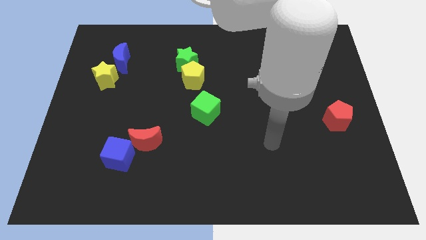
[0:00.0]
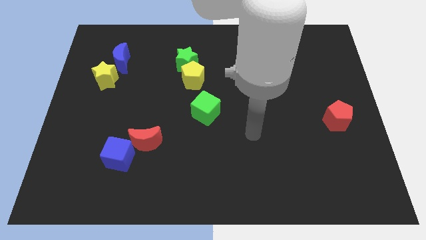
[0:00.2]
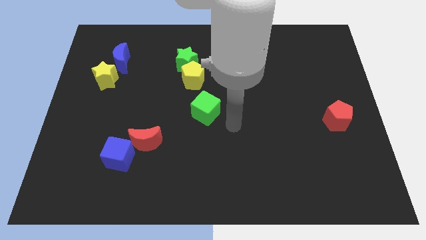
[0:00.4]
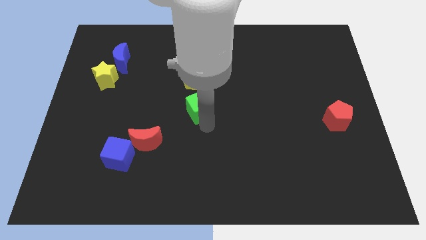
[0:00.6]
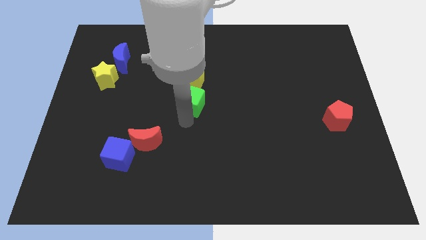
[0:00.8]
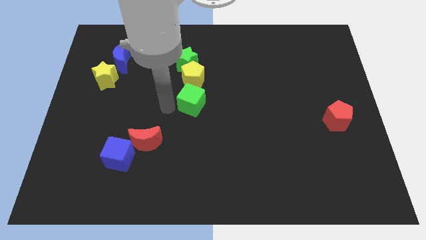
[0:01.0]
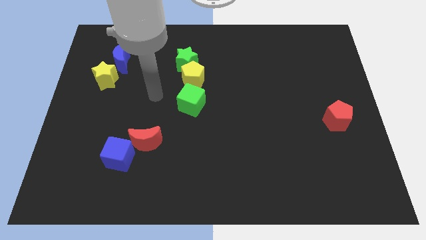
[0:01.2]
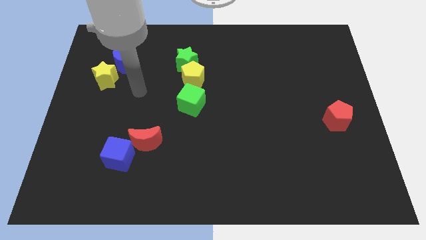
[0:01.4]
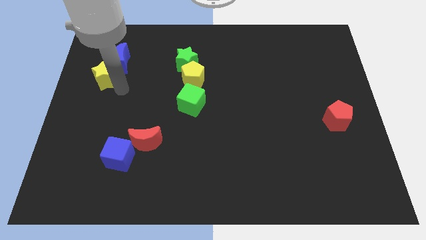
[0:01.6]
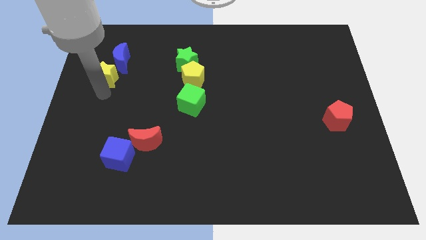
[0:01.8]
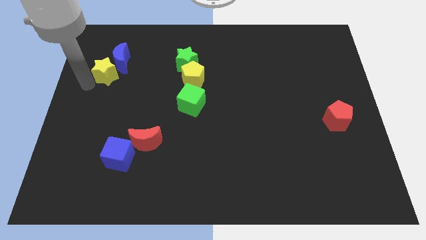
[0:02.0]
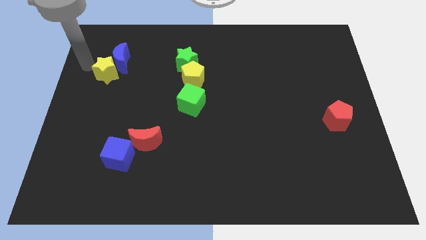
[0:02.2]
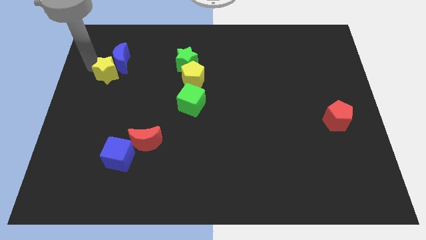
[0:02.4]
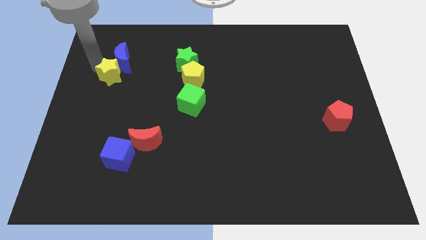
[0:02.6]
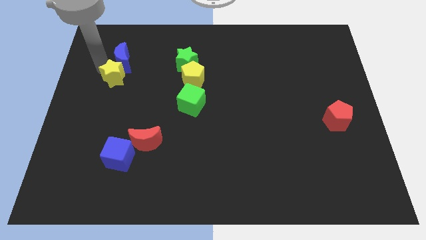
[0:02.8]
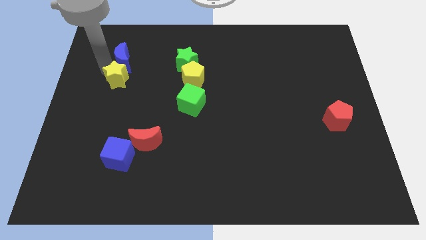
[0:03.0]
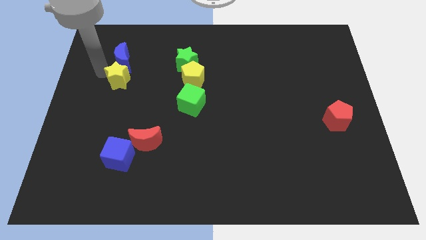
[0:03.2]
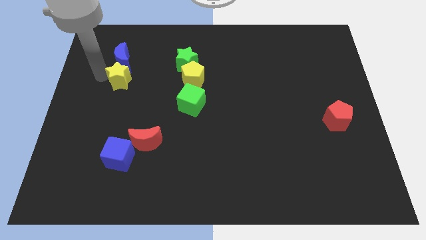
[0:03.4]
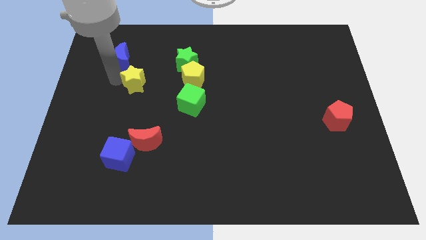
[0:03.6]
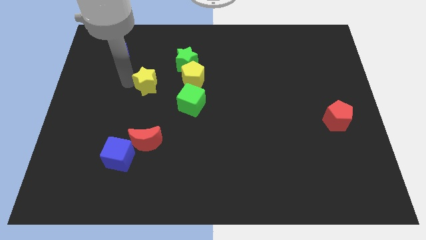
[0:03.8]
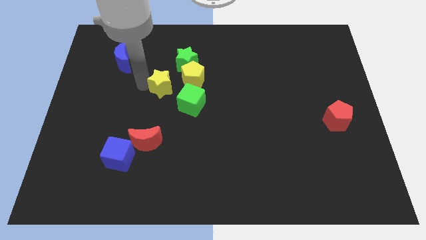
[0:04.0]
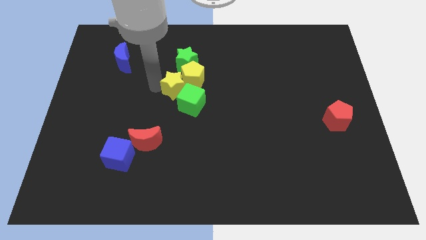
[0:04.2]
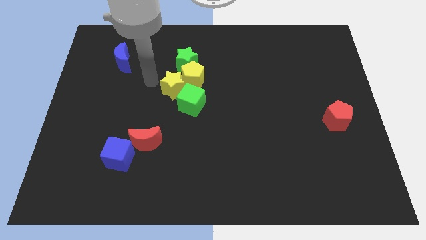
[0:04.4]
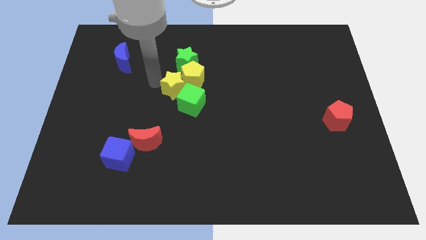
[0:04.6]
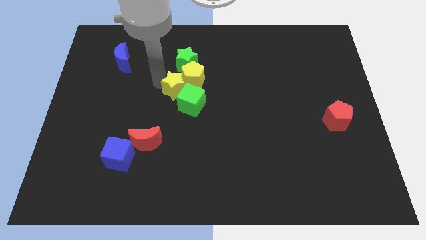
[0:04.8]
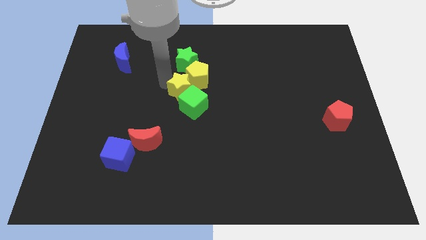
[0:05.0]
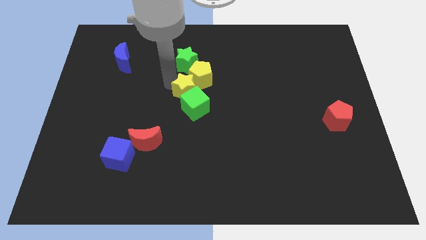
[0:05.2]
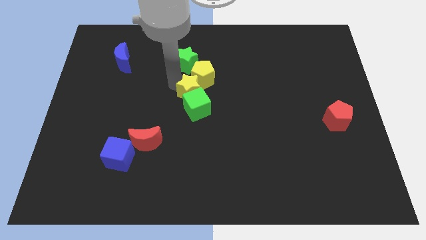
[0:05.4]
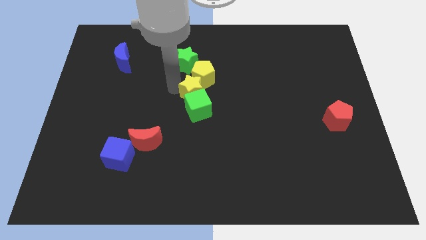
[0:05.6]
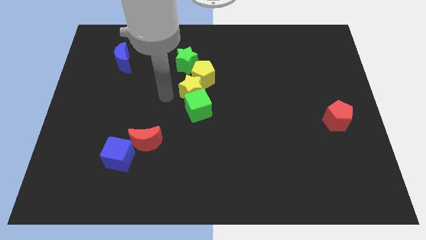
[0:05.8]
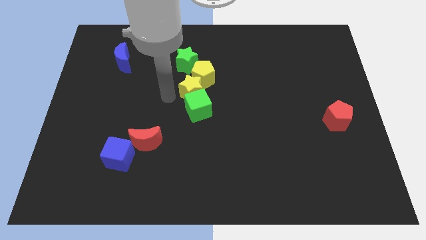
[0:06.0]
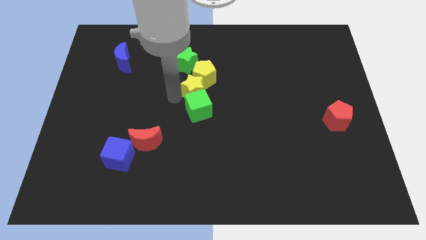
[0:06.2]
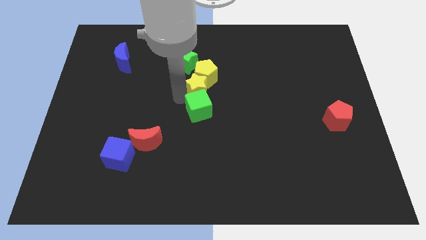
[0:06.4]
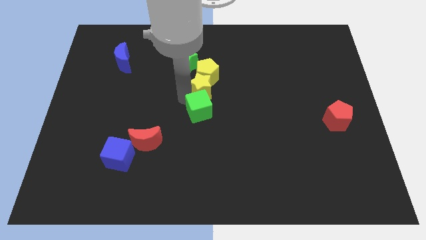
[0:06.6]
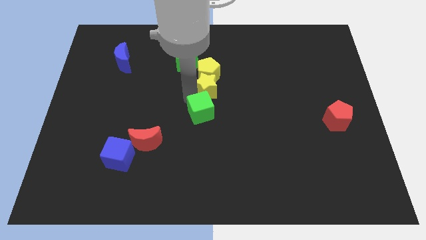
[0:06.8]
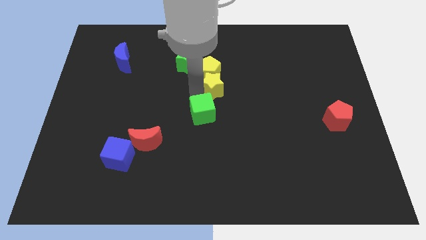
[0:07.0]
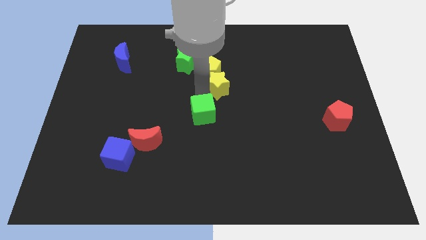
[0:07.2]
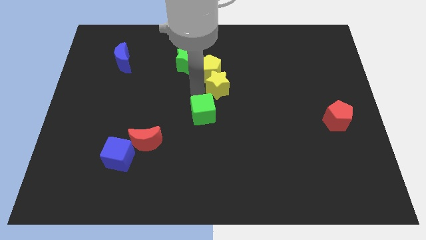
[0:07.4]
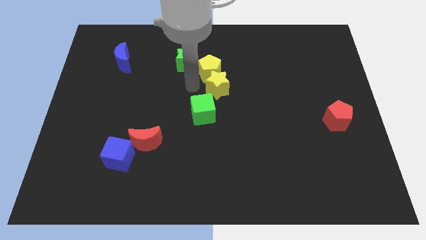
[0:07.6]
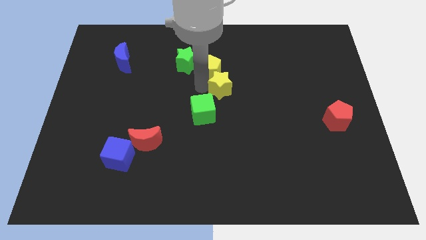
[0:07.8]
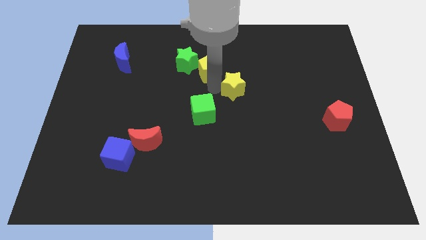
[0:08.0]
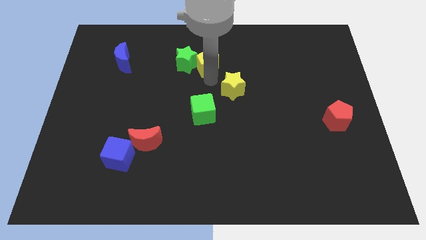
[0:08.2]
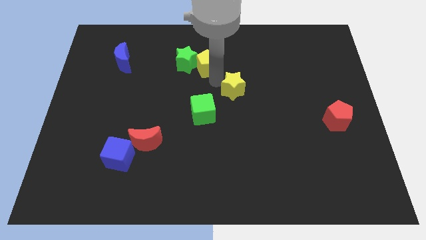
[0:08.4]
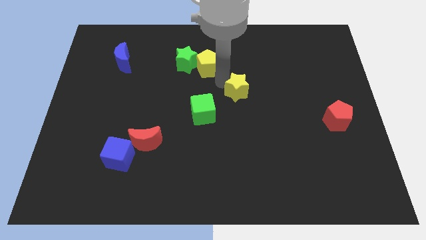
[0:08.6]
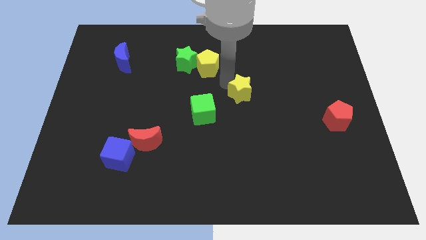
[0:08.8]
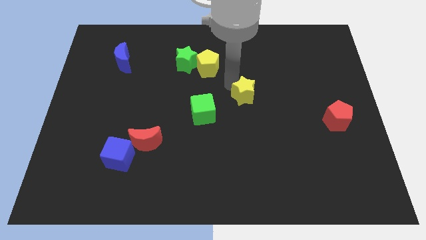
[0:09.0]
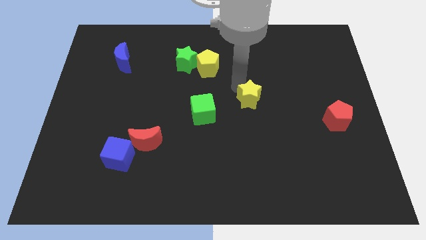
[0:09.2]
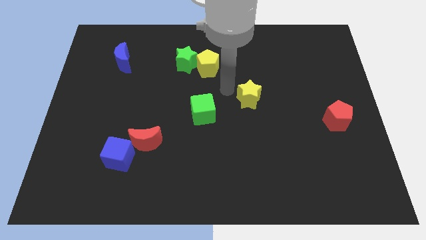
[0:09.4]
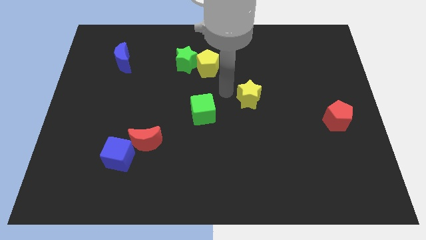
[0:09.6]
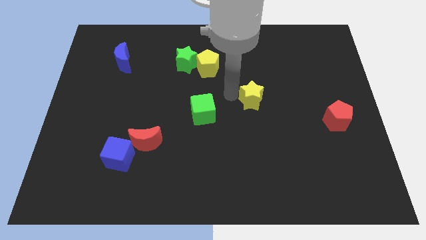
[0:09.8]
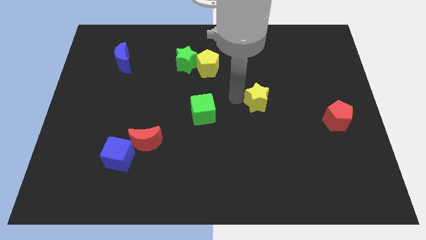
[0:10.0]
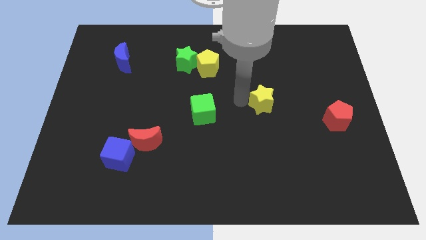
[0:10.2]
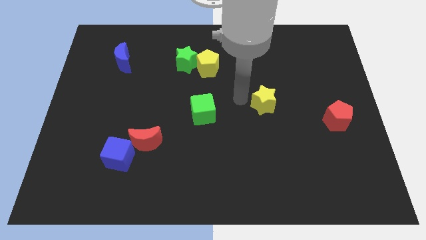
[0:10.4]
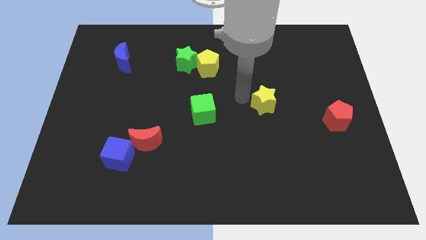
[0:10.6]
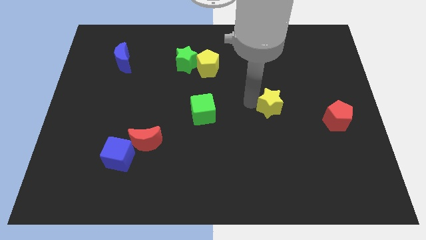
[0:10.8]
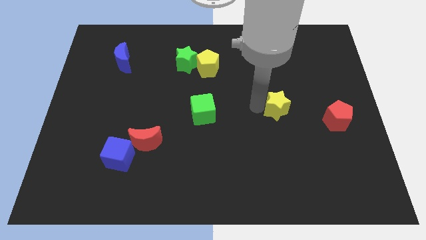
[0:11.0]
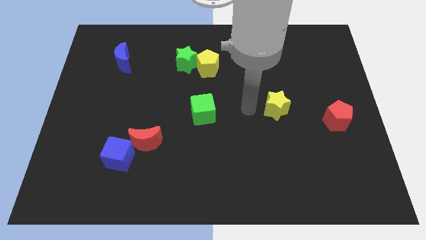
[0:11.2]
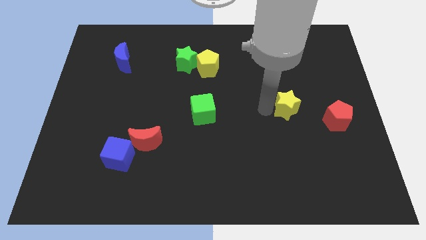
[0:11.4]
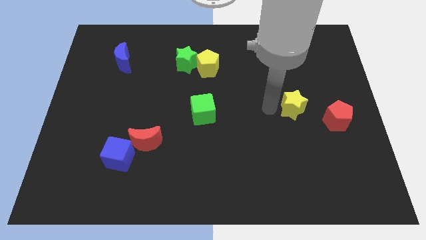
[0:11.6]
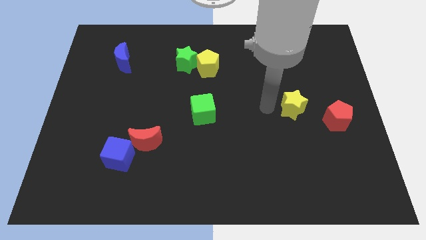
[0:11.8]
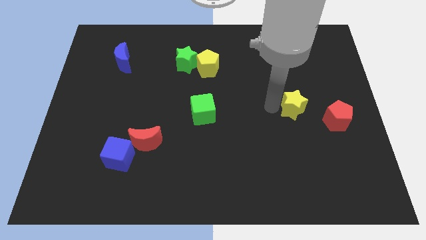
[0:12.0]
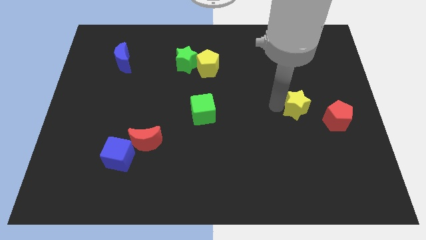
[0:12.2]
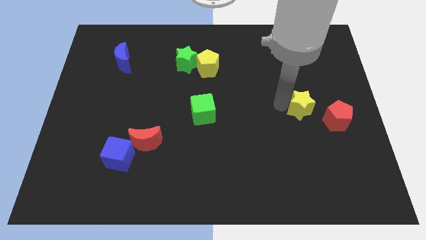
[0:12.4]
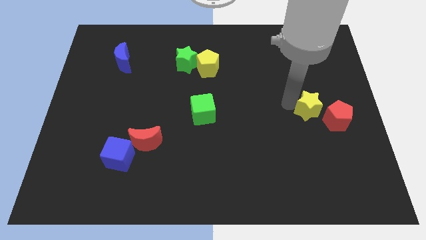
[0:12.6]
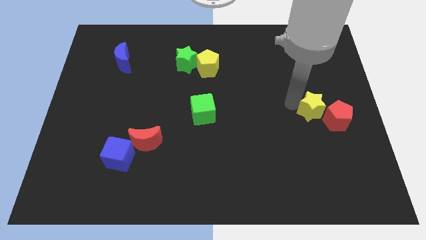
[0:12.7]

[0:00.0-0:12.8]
move the yellow star towards the red pentagon

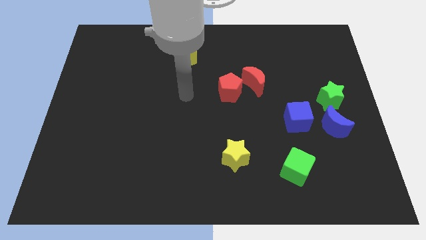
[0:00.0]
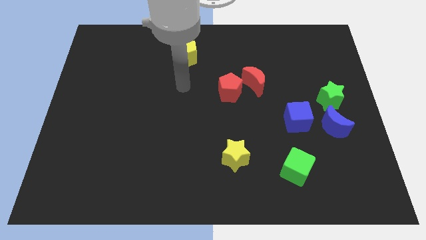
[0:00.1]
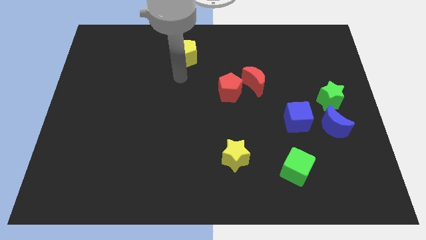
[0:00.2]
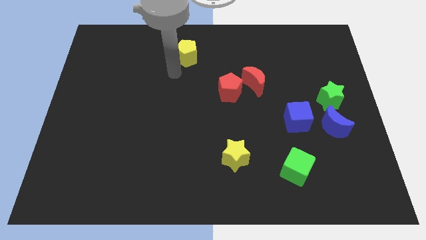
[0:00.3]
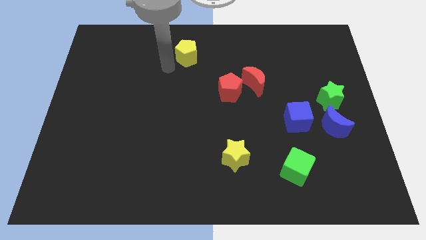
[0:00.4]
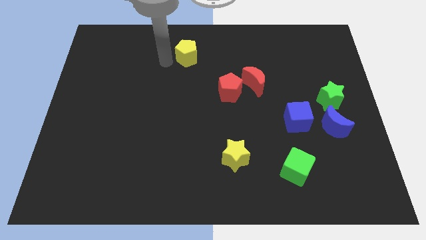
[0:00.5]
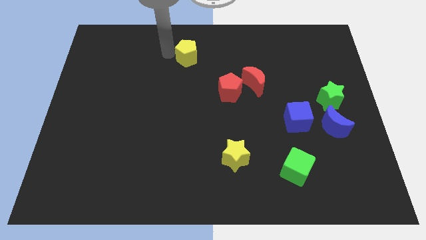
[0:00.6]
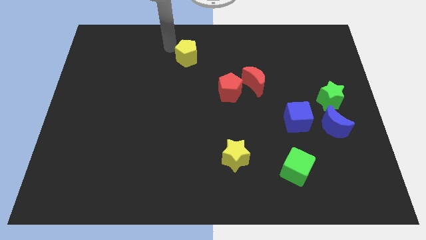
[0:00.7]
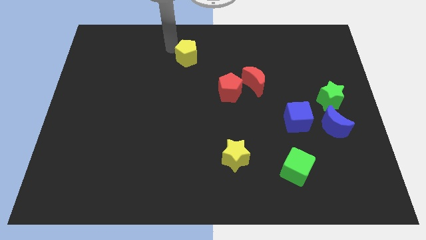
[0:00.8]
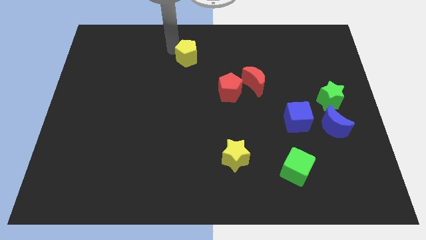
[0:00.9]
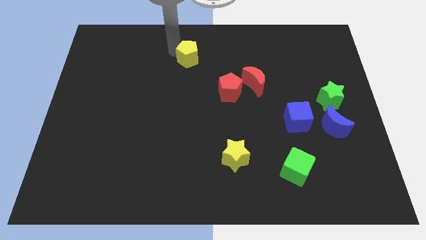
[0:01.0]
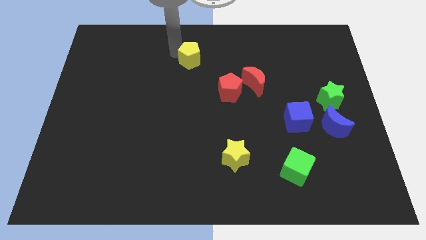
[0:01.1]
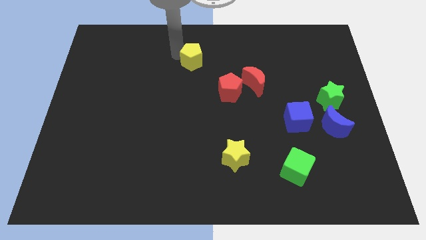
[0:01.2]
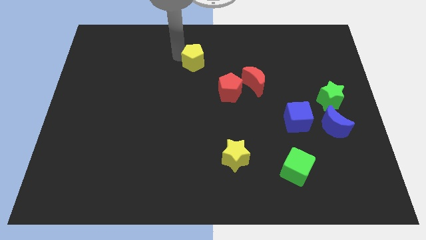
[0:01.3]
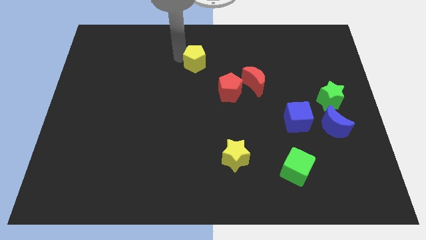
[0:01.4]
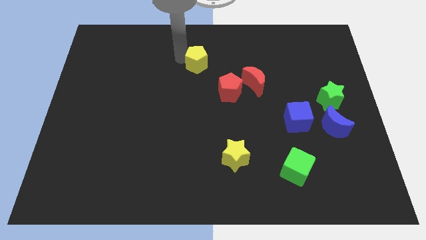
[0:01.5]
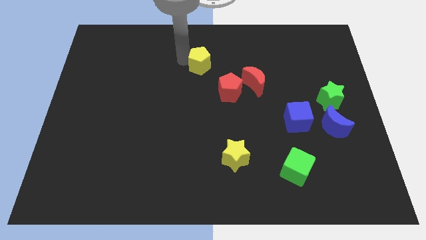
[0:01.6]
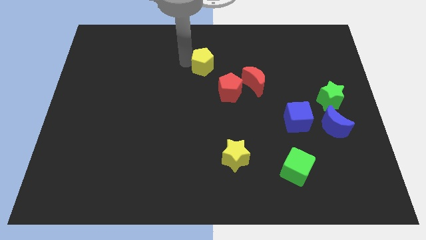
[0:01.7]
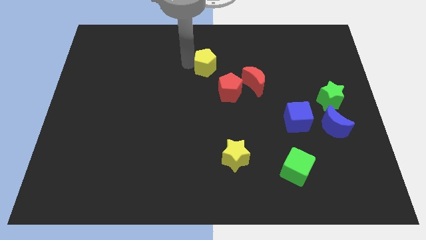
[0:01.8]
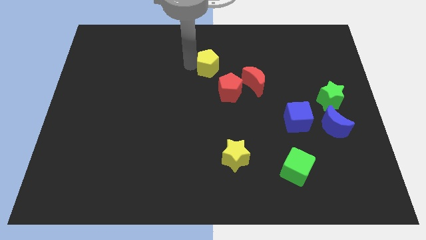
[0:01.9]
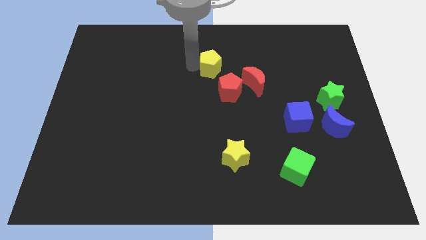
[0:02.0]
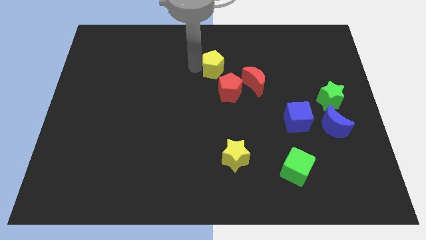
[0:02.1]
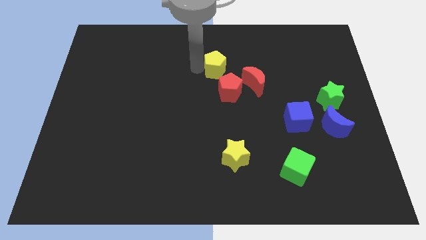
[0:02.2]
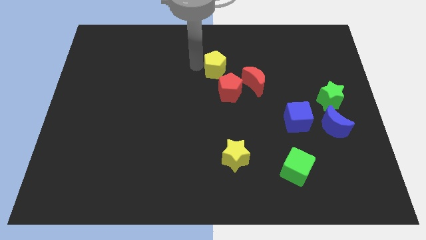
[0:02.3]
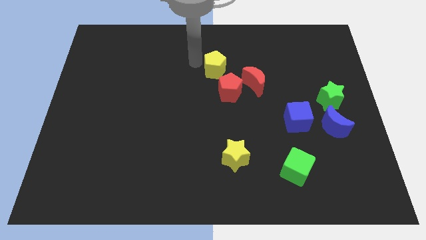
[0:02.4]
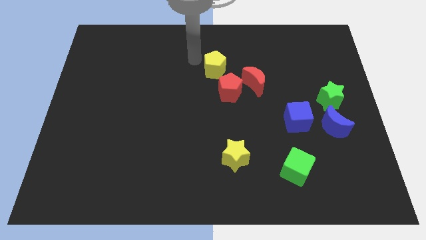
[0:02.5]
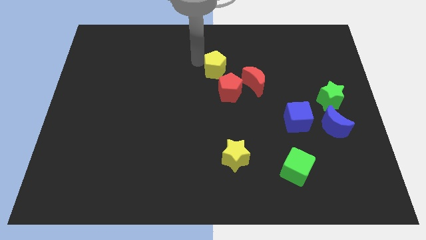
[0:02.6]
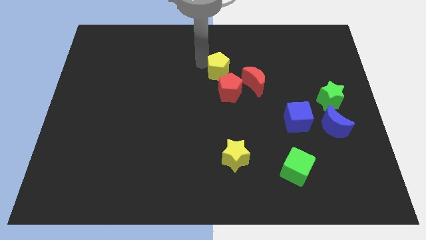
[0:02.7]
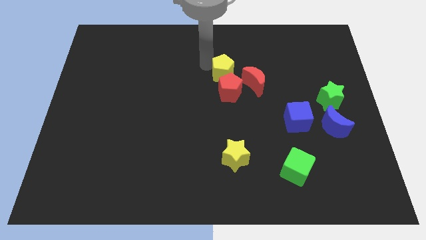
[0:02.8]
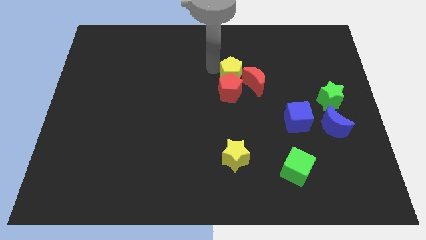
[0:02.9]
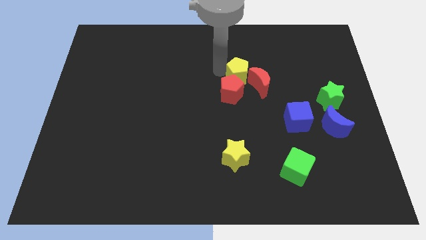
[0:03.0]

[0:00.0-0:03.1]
slide the yellow pentagon next to the red moon
